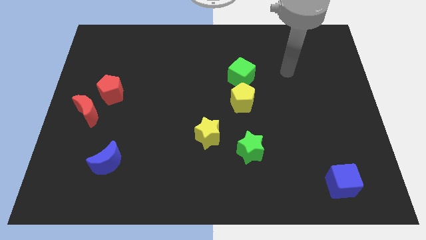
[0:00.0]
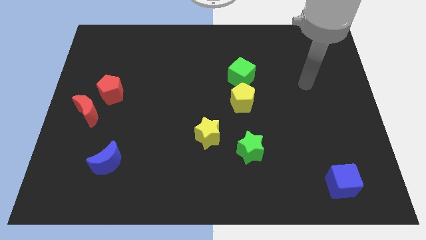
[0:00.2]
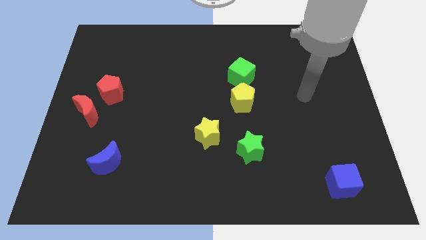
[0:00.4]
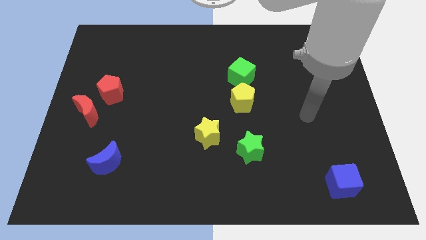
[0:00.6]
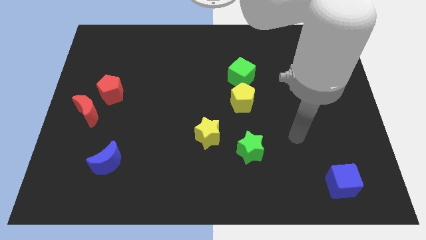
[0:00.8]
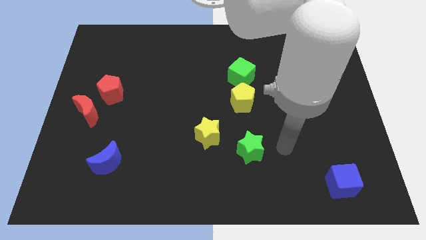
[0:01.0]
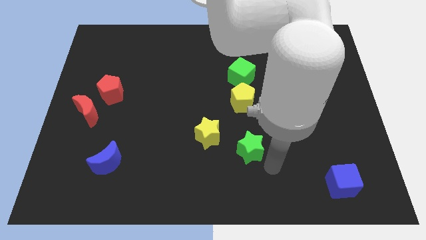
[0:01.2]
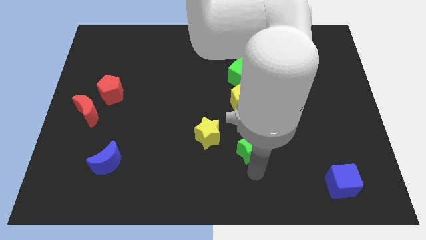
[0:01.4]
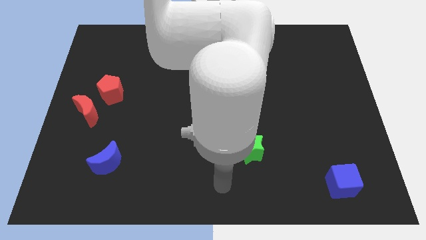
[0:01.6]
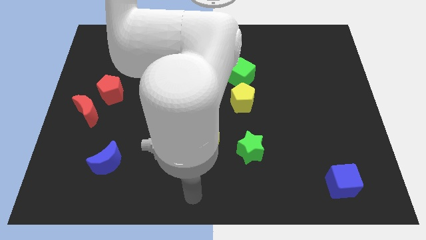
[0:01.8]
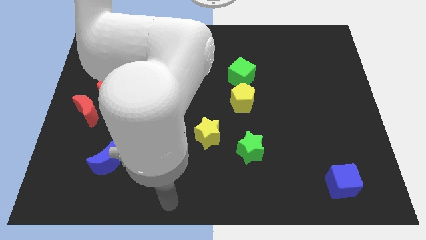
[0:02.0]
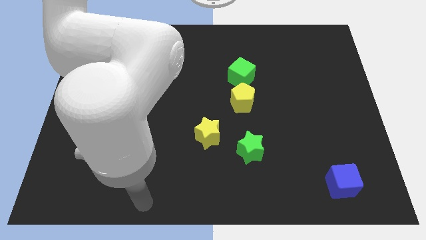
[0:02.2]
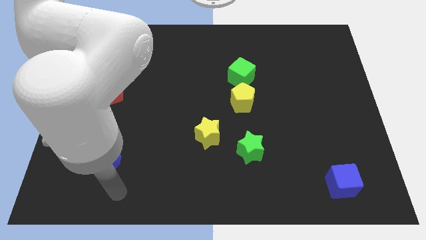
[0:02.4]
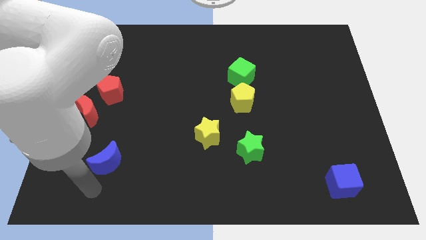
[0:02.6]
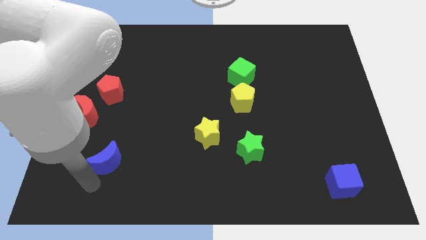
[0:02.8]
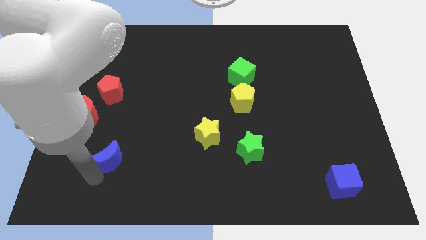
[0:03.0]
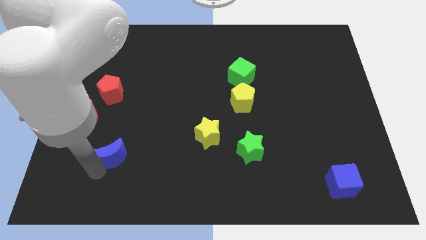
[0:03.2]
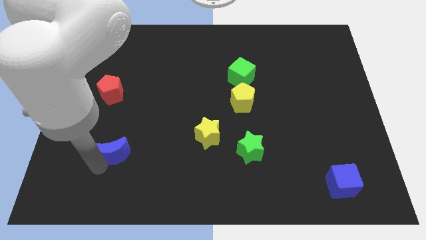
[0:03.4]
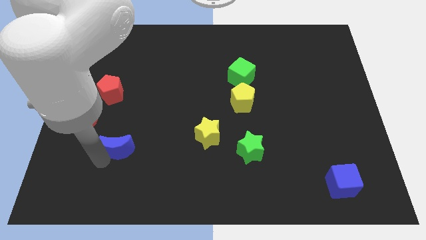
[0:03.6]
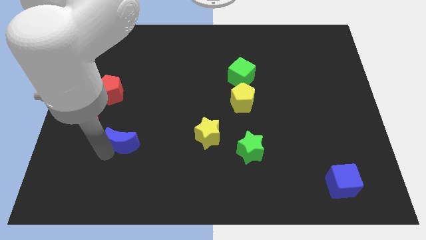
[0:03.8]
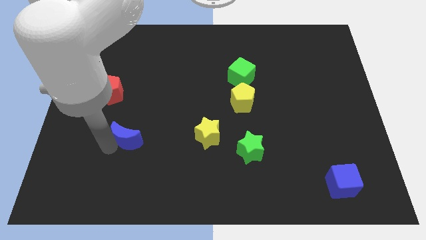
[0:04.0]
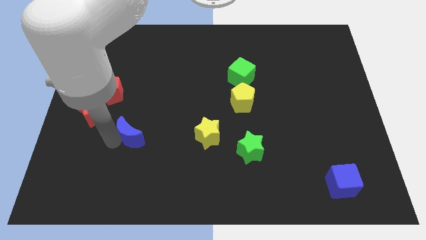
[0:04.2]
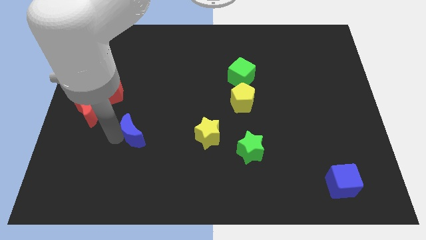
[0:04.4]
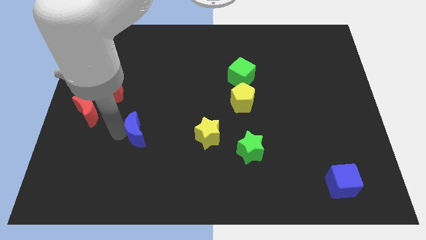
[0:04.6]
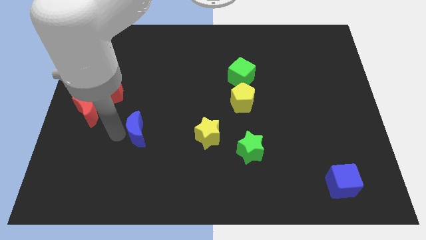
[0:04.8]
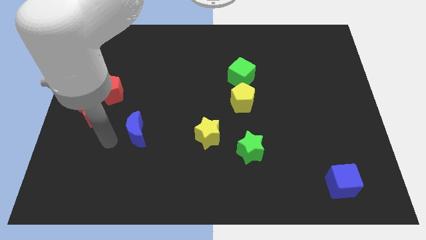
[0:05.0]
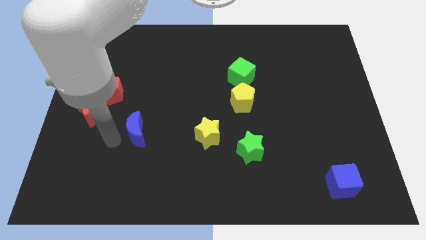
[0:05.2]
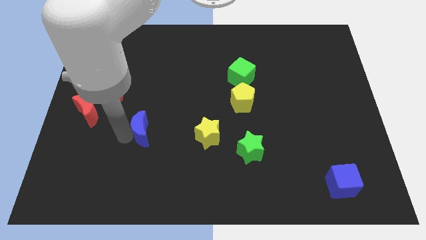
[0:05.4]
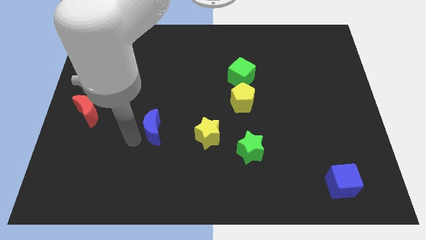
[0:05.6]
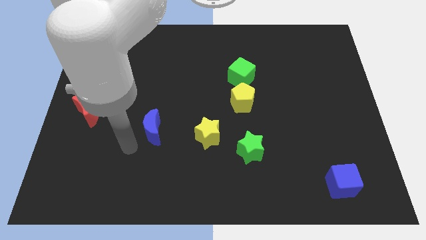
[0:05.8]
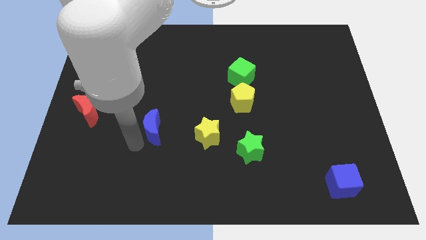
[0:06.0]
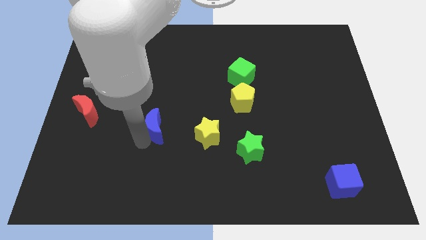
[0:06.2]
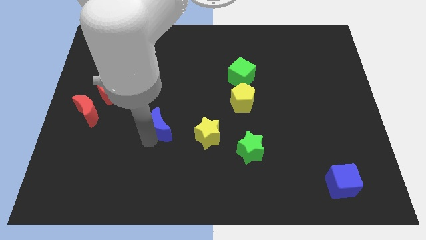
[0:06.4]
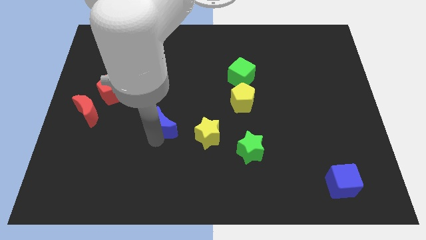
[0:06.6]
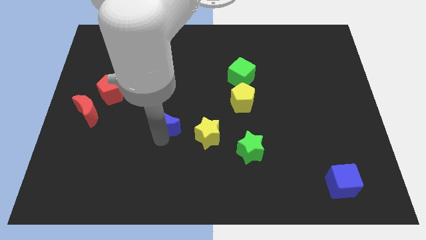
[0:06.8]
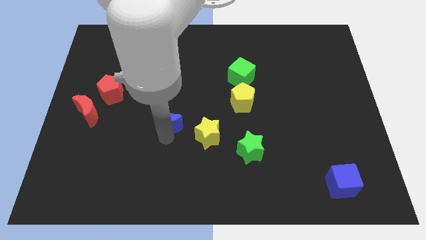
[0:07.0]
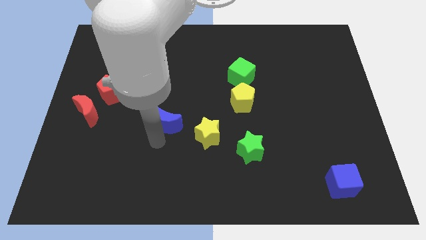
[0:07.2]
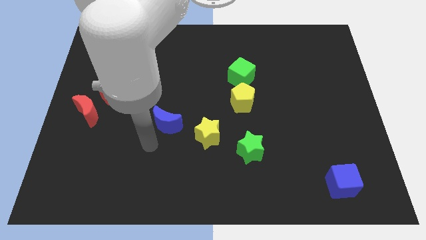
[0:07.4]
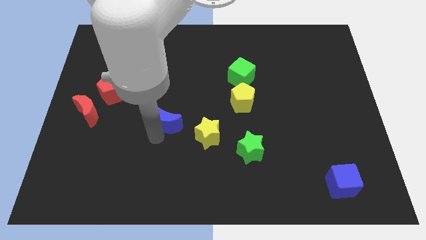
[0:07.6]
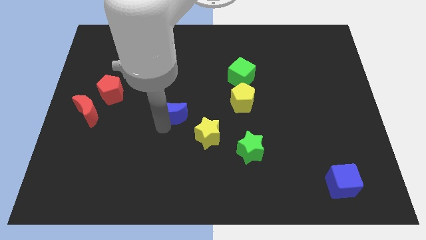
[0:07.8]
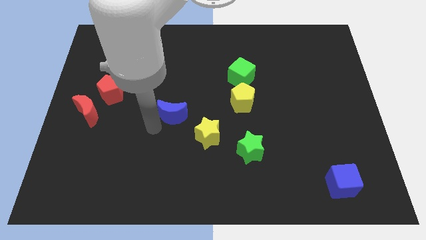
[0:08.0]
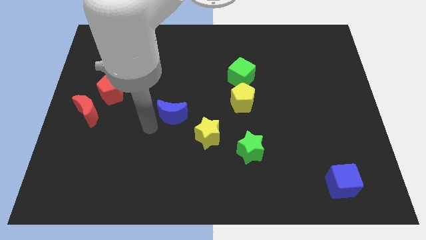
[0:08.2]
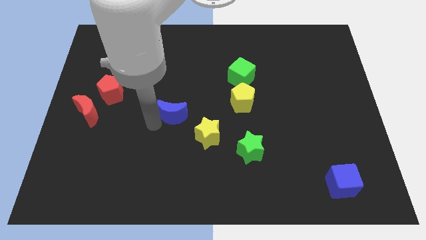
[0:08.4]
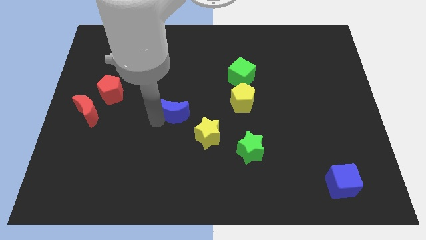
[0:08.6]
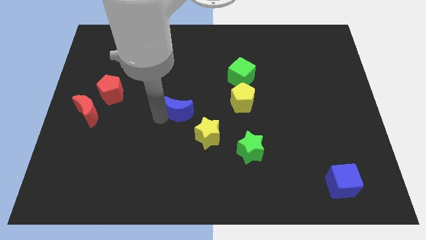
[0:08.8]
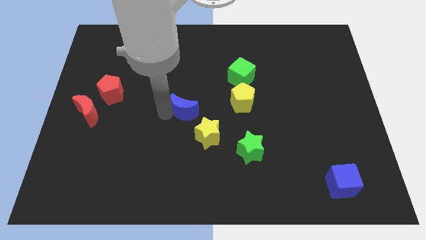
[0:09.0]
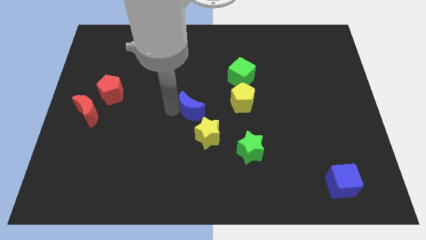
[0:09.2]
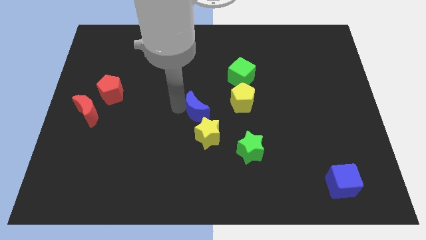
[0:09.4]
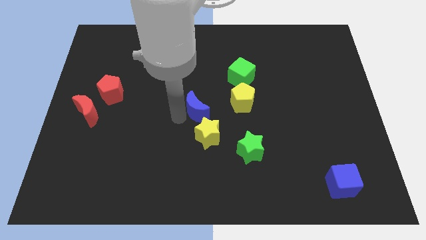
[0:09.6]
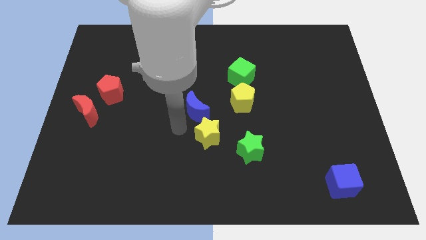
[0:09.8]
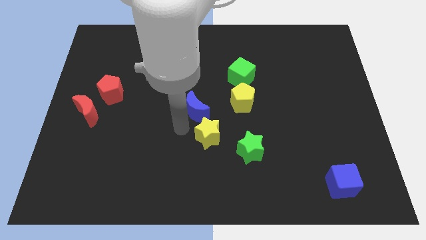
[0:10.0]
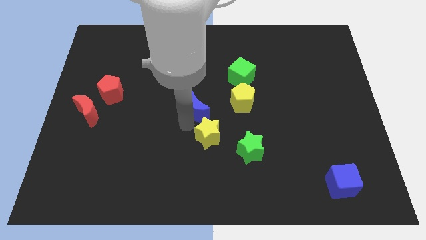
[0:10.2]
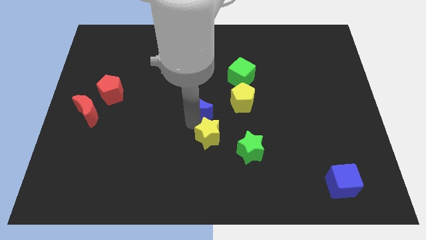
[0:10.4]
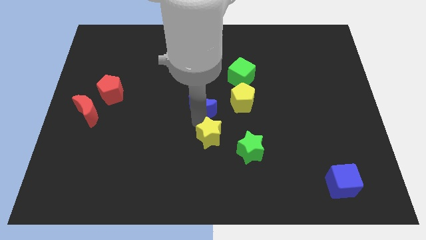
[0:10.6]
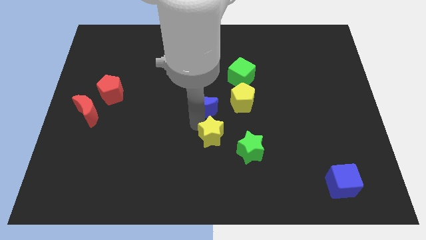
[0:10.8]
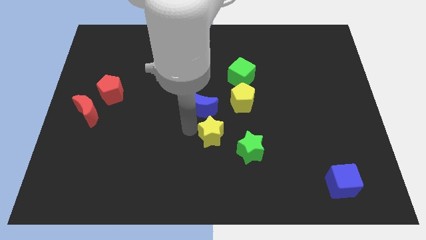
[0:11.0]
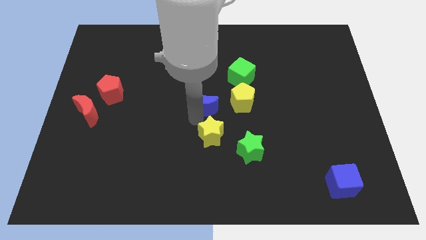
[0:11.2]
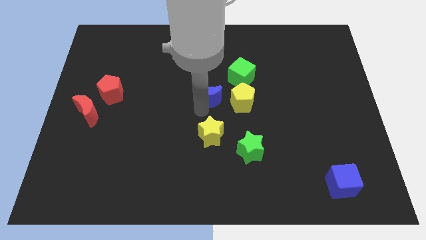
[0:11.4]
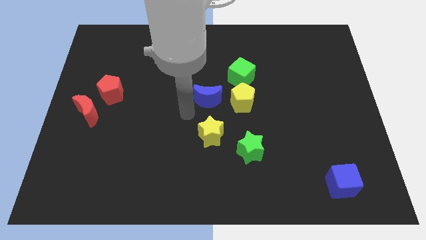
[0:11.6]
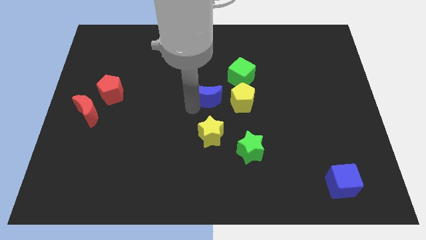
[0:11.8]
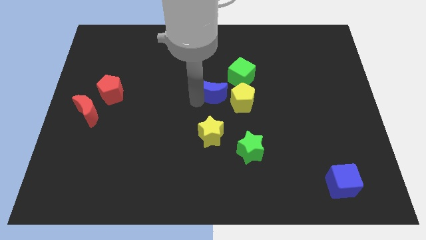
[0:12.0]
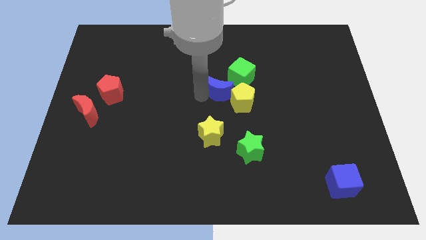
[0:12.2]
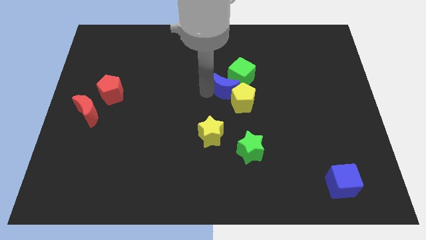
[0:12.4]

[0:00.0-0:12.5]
slide the blue moon close to the green cube

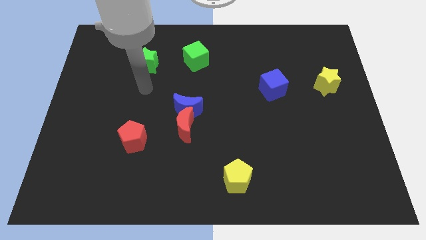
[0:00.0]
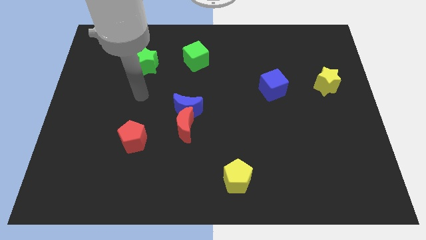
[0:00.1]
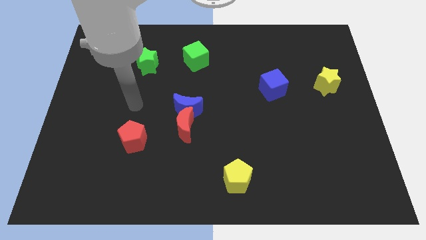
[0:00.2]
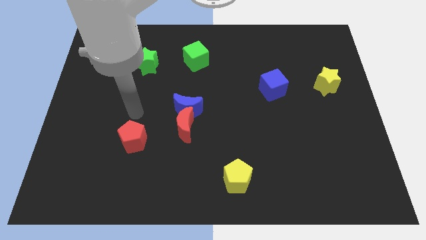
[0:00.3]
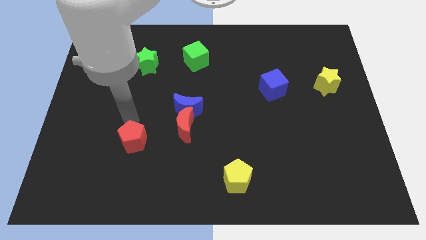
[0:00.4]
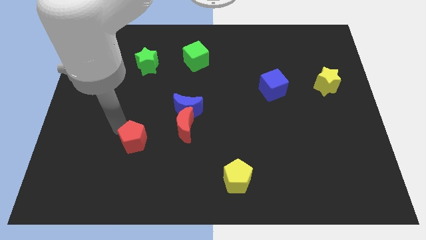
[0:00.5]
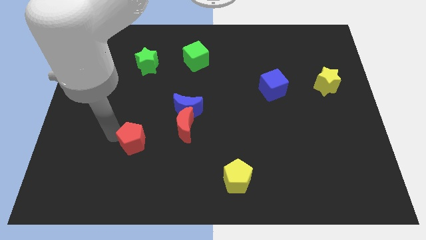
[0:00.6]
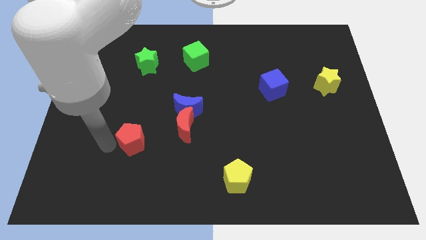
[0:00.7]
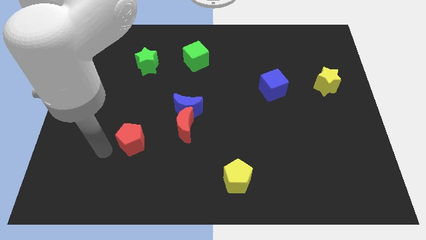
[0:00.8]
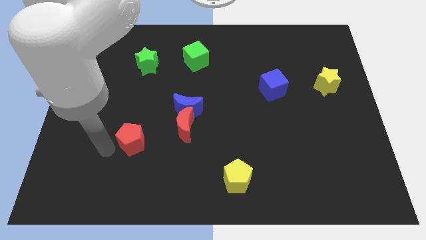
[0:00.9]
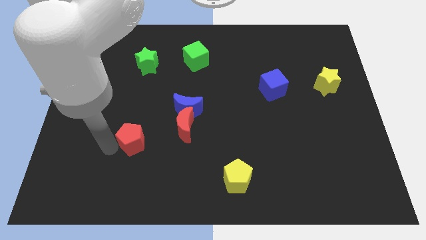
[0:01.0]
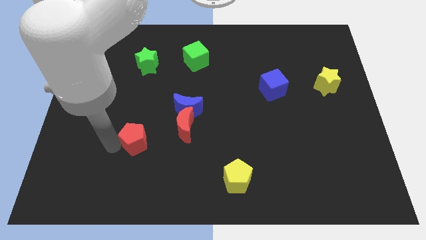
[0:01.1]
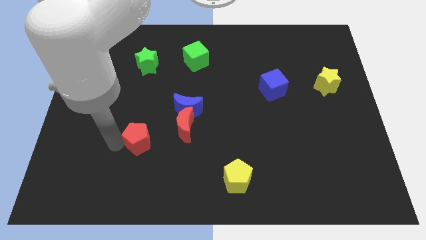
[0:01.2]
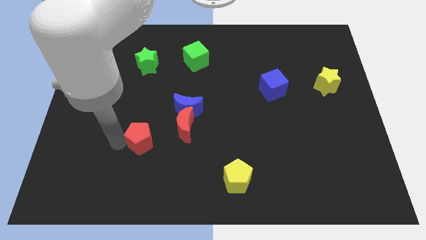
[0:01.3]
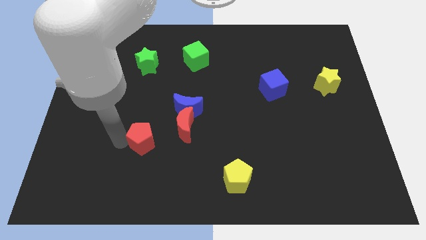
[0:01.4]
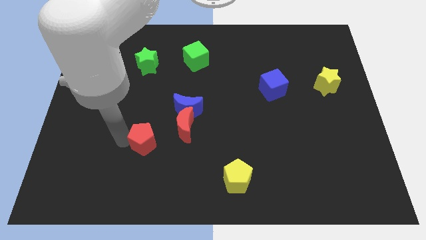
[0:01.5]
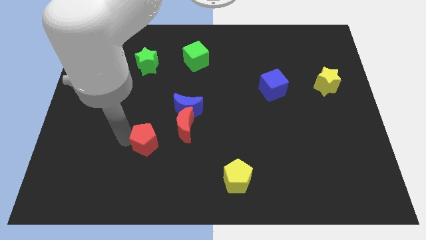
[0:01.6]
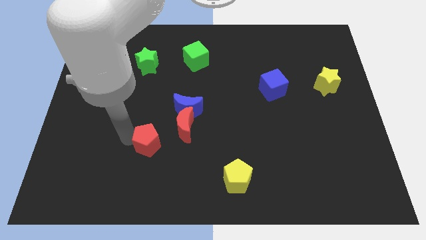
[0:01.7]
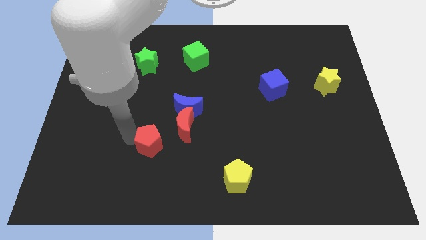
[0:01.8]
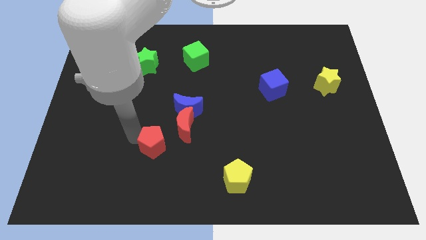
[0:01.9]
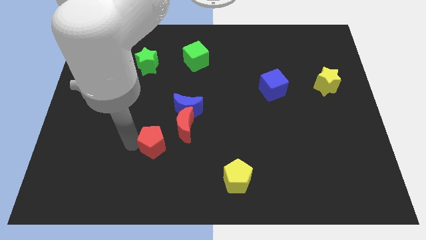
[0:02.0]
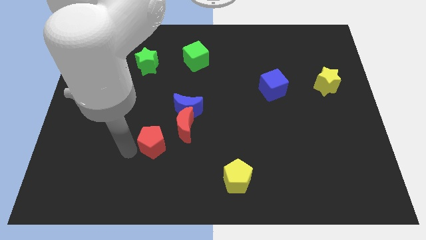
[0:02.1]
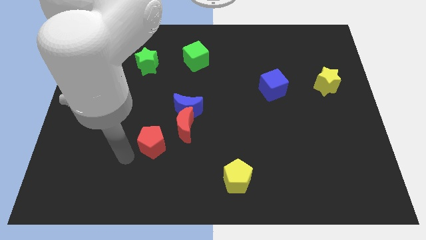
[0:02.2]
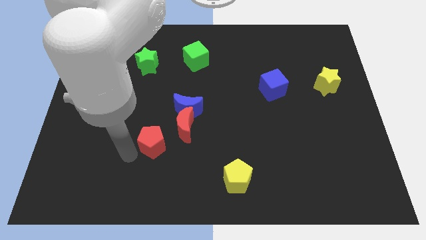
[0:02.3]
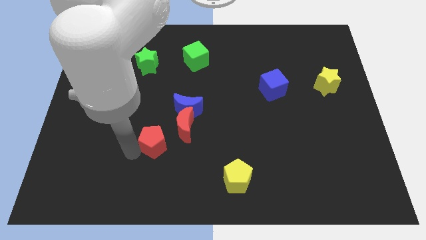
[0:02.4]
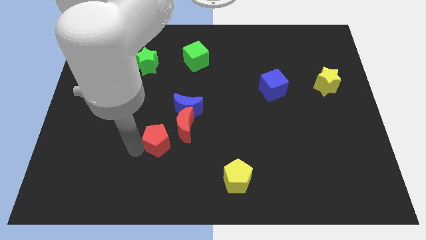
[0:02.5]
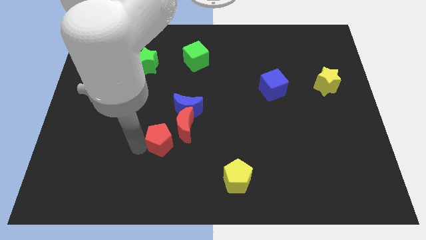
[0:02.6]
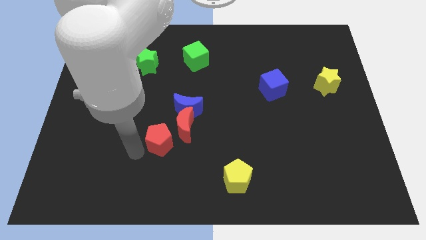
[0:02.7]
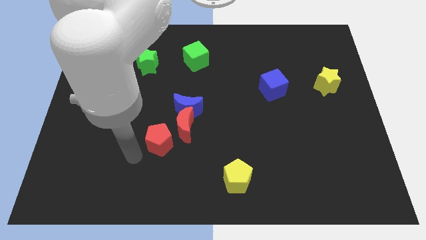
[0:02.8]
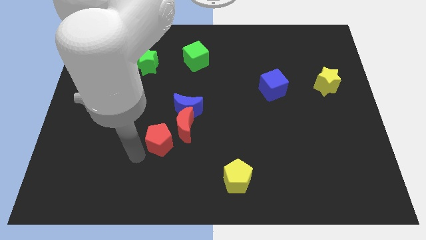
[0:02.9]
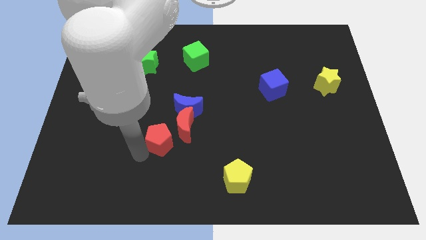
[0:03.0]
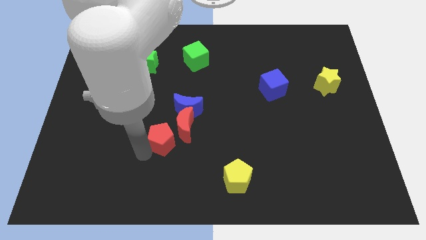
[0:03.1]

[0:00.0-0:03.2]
put the red pentagon next to the red moon
